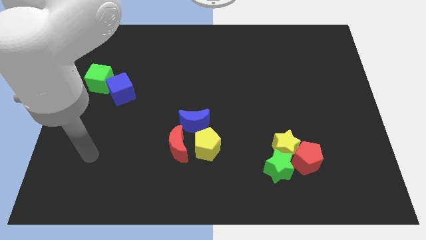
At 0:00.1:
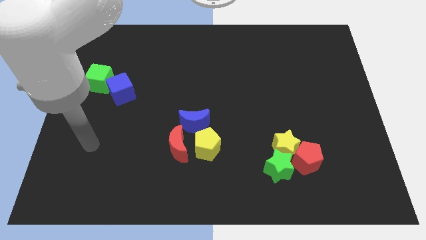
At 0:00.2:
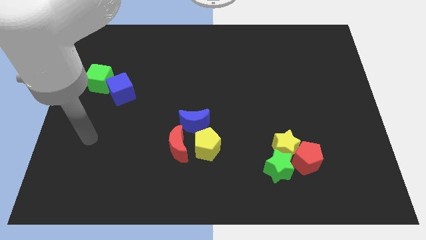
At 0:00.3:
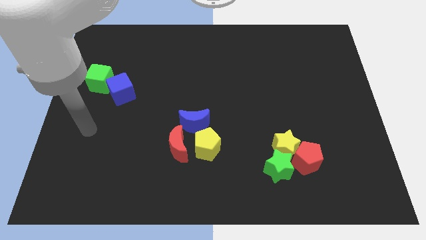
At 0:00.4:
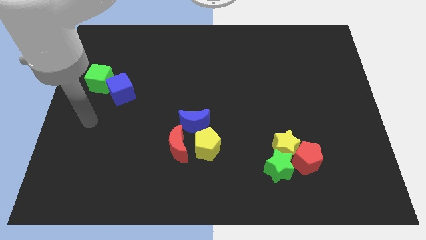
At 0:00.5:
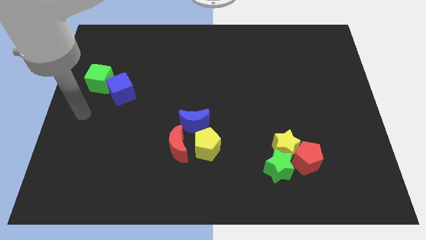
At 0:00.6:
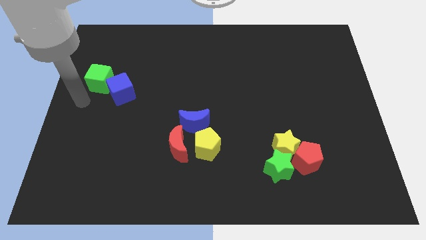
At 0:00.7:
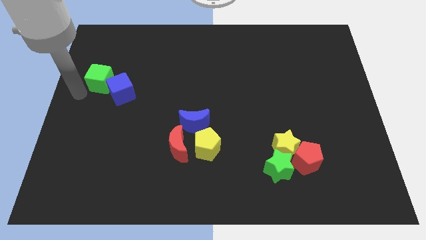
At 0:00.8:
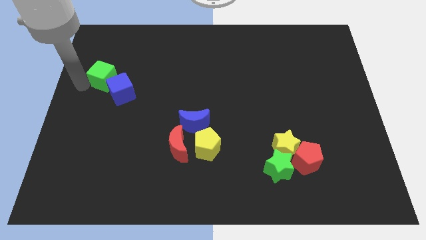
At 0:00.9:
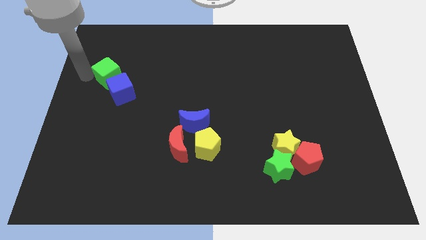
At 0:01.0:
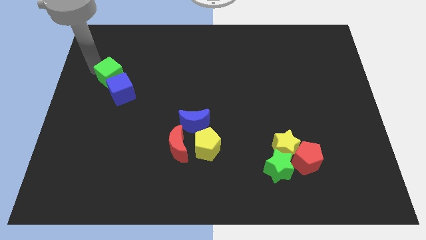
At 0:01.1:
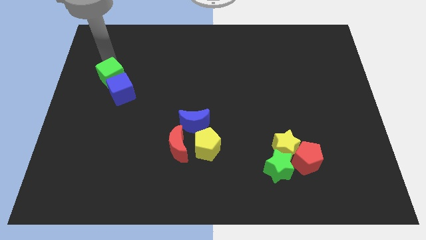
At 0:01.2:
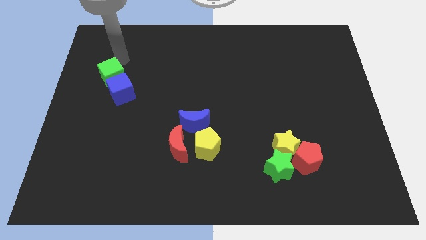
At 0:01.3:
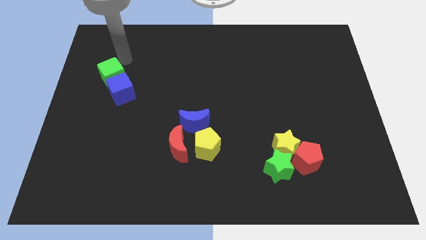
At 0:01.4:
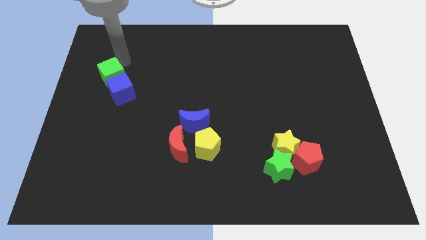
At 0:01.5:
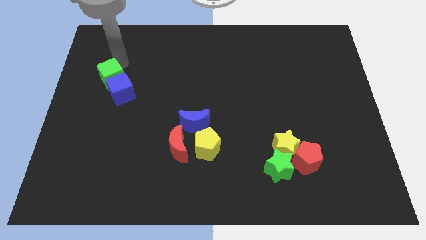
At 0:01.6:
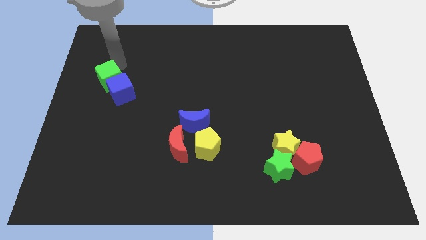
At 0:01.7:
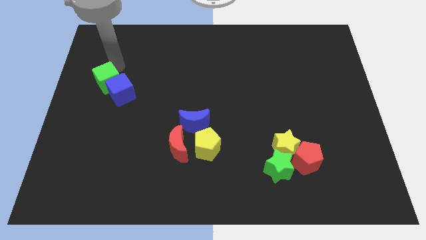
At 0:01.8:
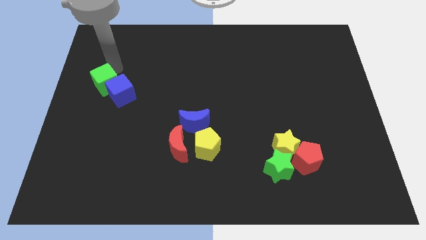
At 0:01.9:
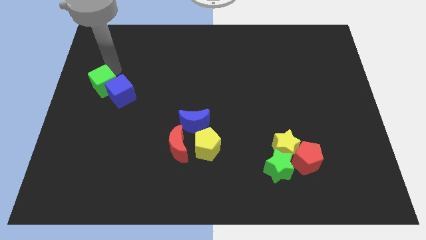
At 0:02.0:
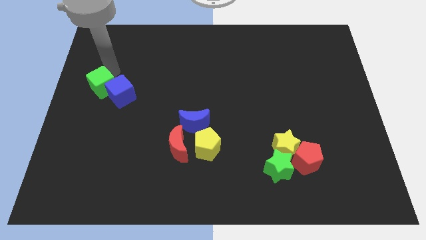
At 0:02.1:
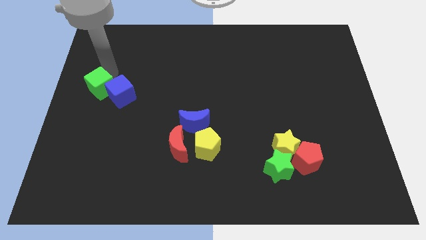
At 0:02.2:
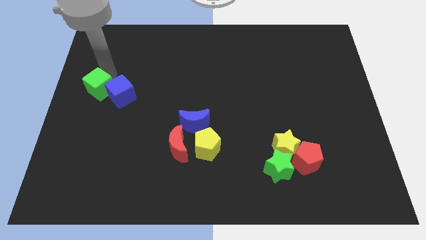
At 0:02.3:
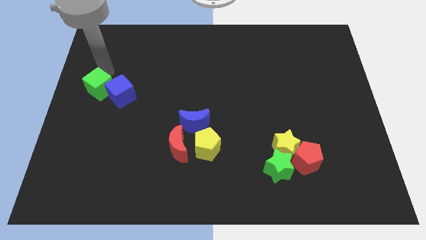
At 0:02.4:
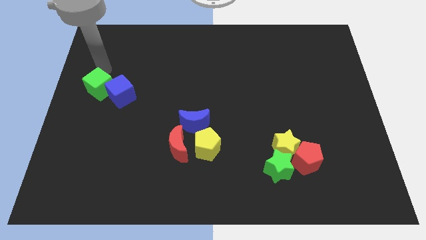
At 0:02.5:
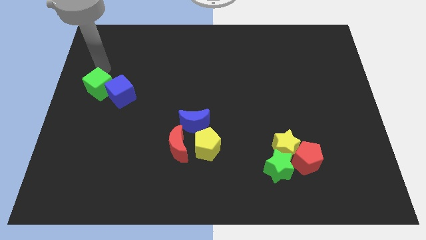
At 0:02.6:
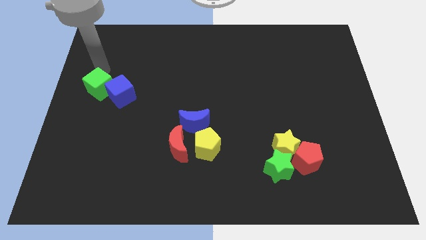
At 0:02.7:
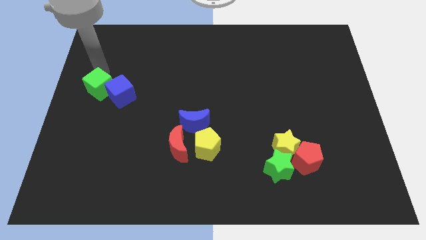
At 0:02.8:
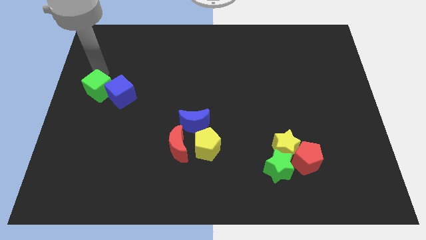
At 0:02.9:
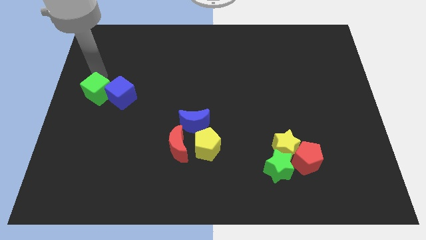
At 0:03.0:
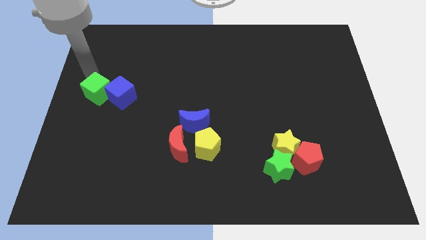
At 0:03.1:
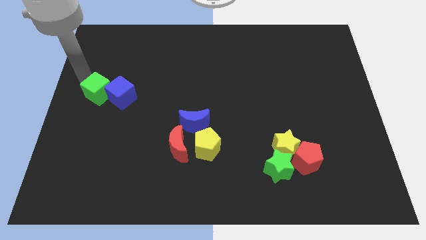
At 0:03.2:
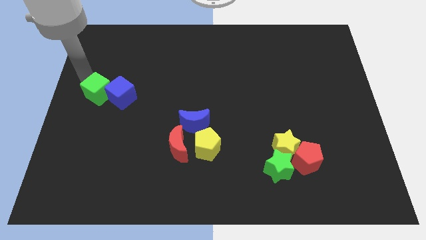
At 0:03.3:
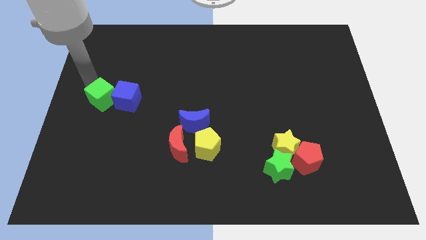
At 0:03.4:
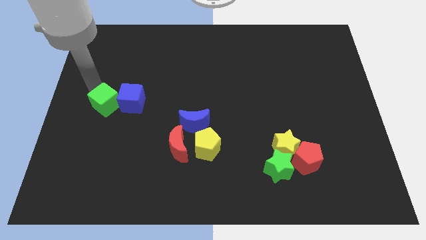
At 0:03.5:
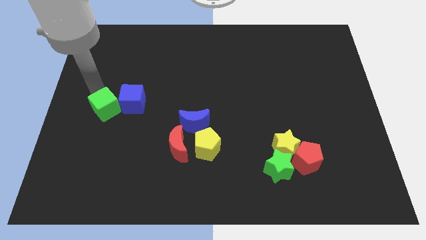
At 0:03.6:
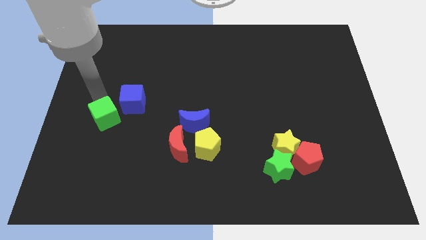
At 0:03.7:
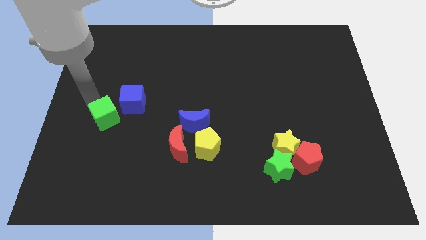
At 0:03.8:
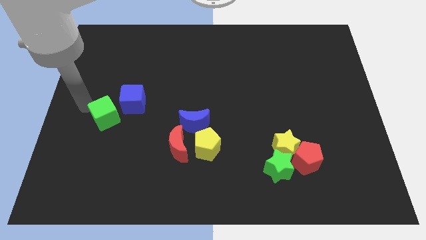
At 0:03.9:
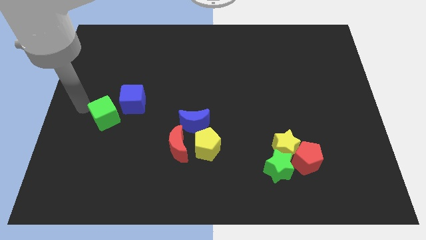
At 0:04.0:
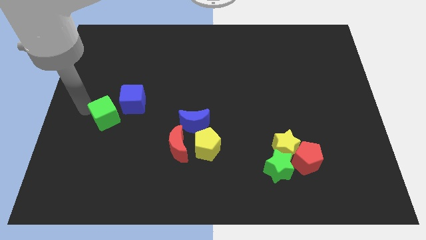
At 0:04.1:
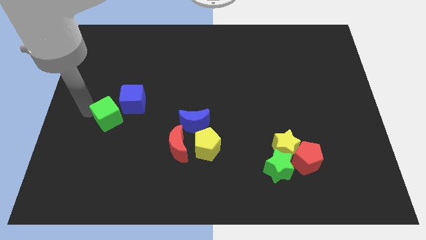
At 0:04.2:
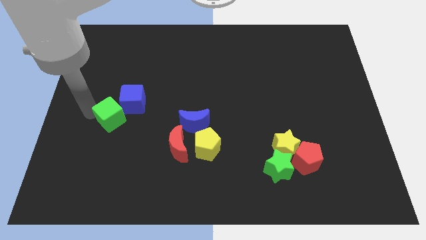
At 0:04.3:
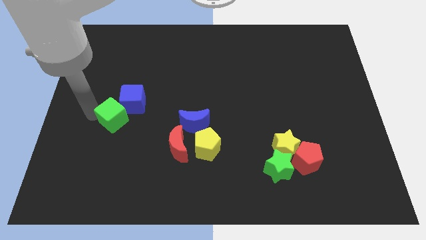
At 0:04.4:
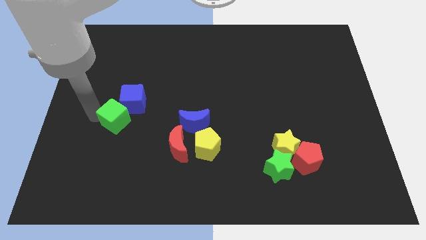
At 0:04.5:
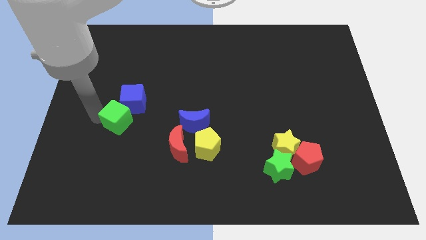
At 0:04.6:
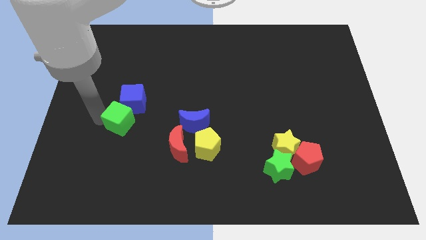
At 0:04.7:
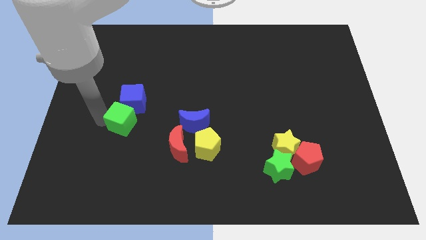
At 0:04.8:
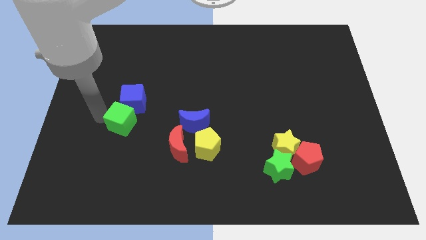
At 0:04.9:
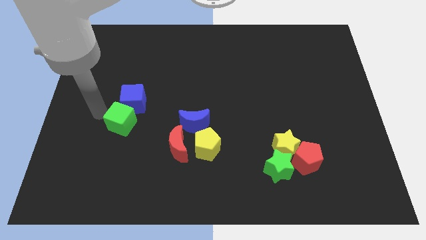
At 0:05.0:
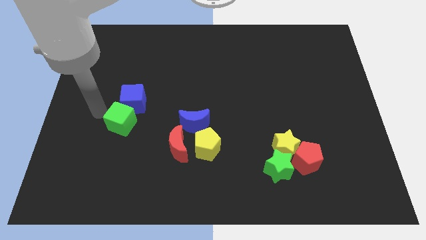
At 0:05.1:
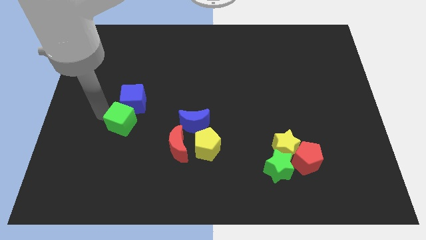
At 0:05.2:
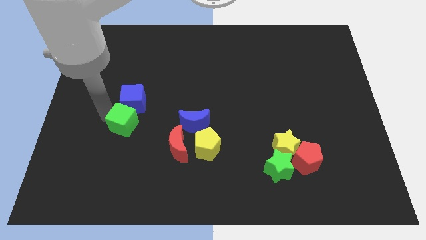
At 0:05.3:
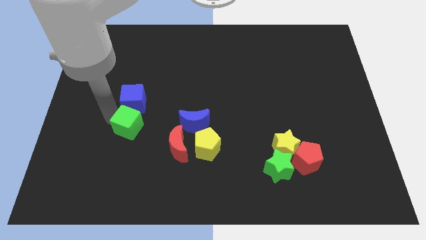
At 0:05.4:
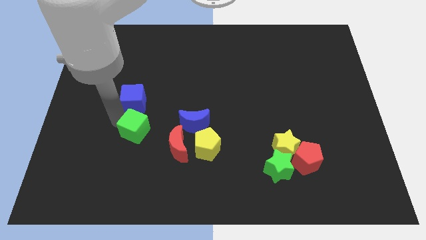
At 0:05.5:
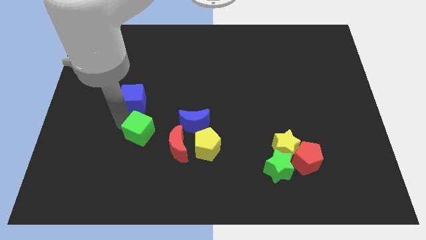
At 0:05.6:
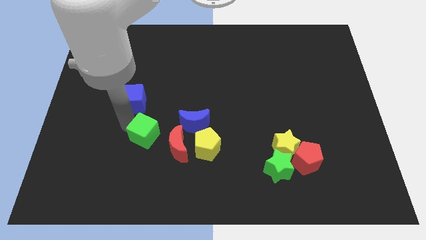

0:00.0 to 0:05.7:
move the green cube downwards and then to the right

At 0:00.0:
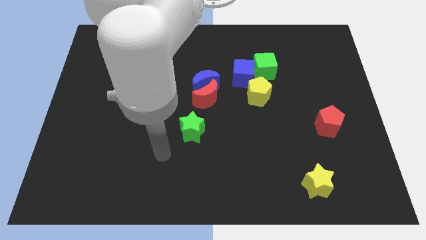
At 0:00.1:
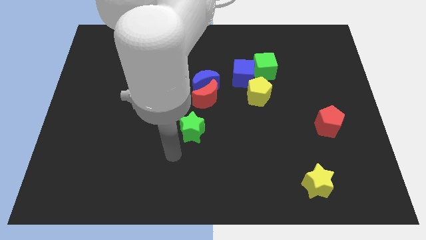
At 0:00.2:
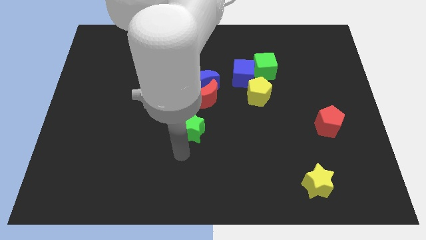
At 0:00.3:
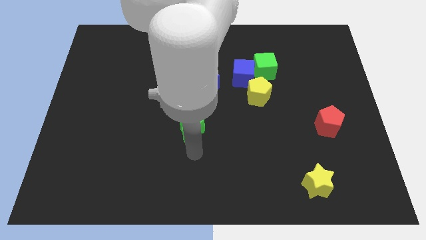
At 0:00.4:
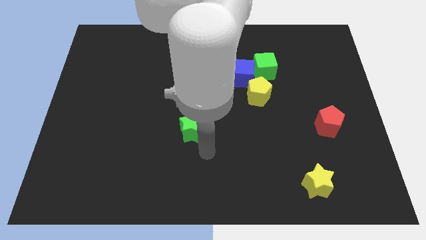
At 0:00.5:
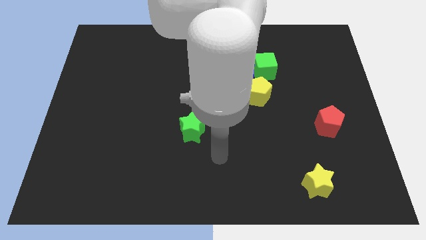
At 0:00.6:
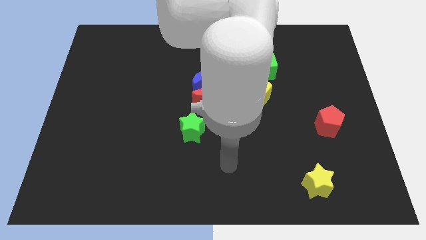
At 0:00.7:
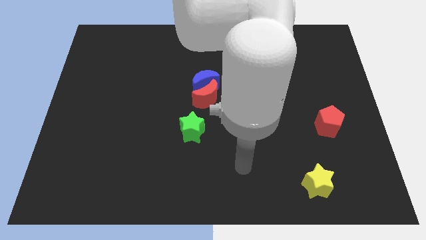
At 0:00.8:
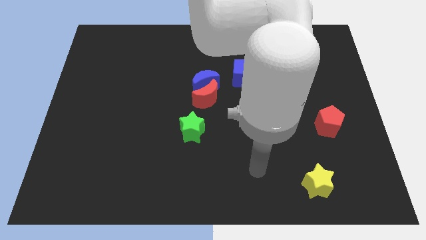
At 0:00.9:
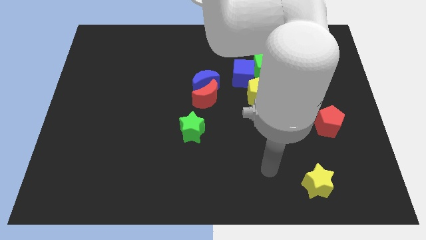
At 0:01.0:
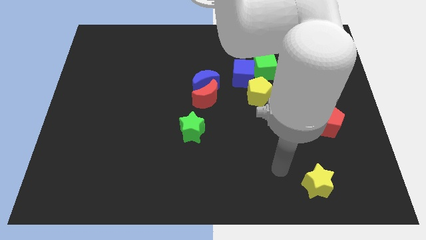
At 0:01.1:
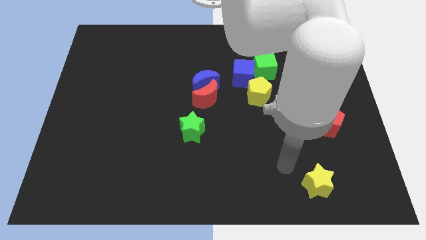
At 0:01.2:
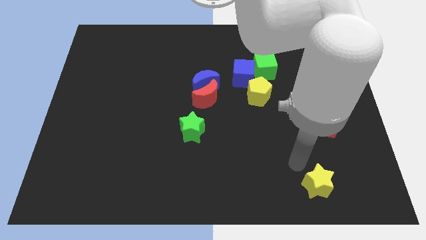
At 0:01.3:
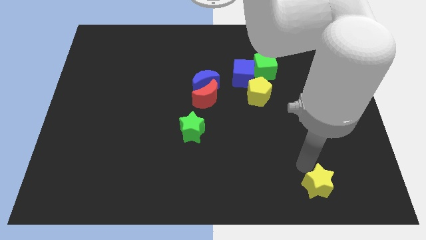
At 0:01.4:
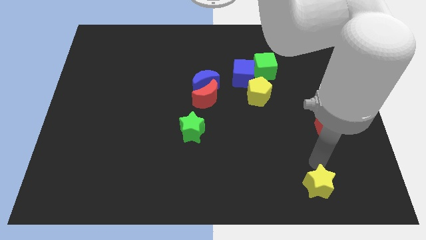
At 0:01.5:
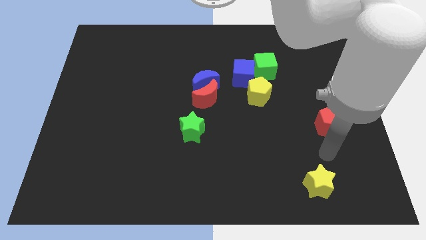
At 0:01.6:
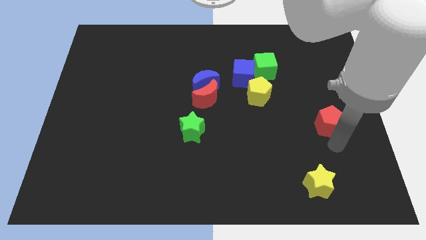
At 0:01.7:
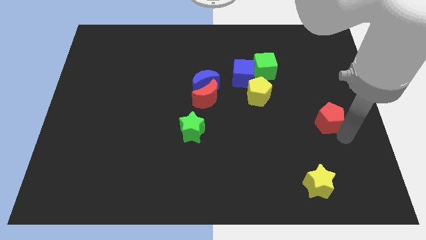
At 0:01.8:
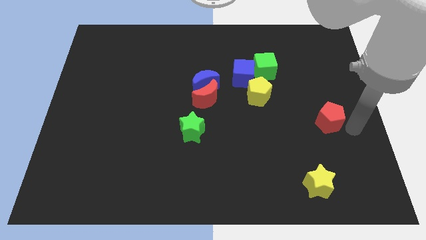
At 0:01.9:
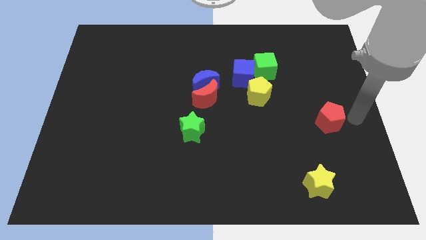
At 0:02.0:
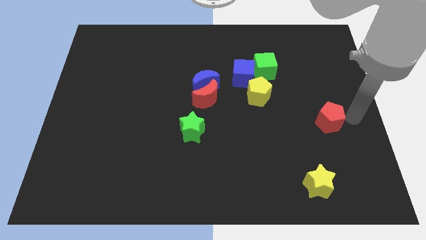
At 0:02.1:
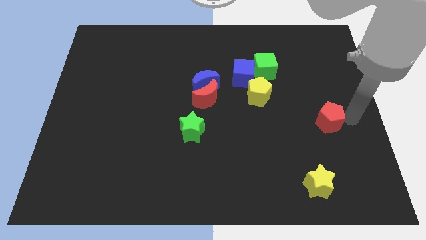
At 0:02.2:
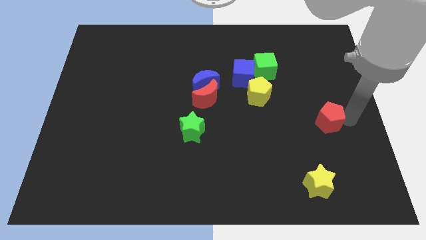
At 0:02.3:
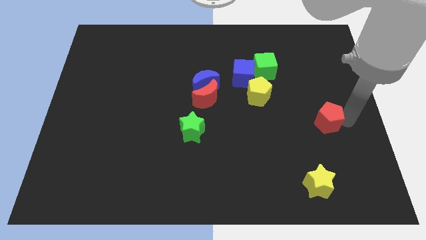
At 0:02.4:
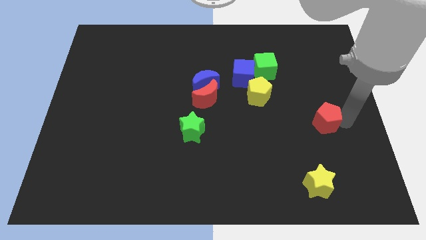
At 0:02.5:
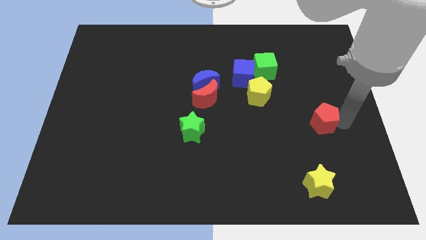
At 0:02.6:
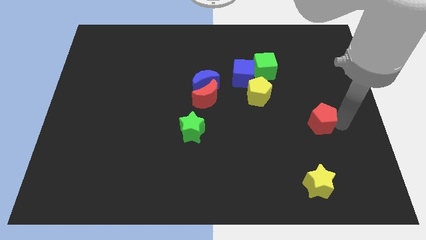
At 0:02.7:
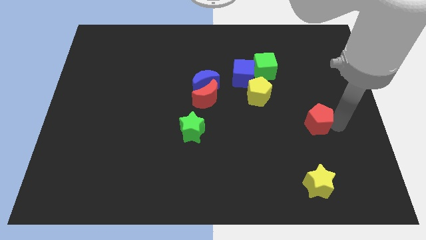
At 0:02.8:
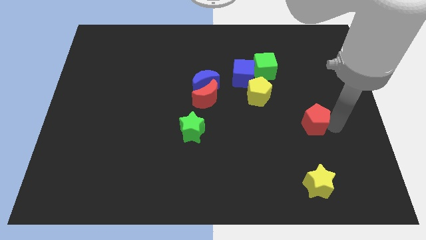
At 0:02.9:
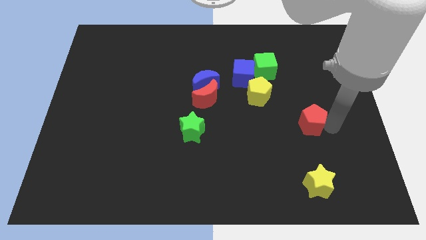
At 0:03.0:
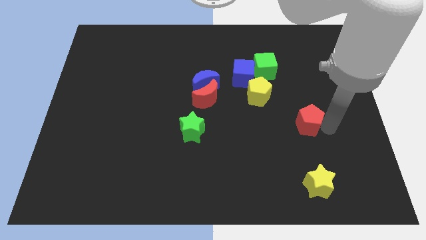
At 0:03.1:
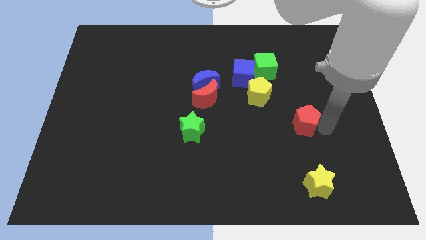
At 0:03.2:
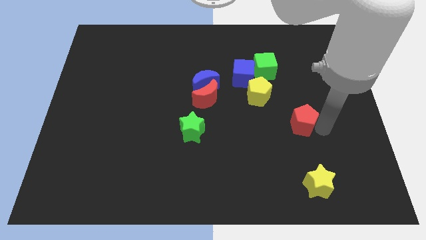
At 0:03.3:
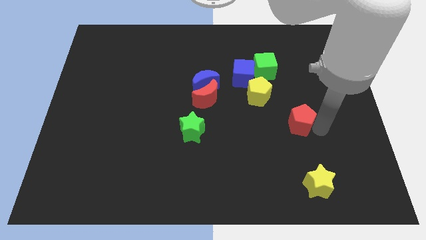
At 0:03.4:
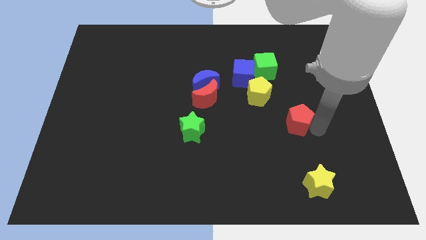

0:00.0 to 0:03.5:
slightly slide the red pentagon left
